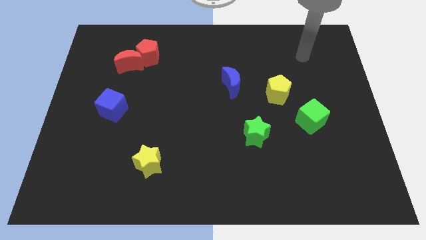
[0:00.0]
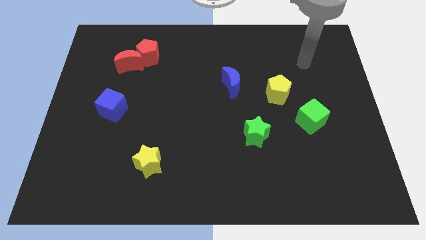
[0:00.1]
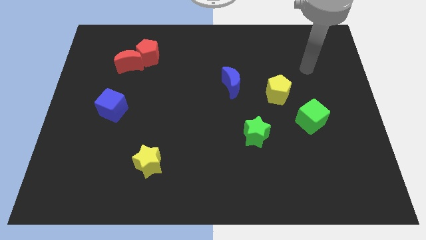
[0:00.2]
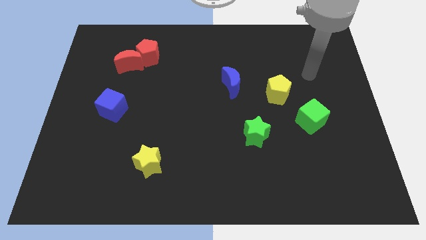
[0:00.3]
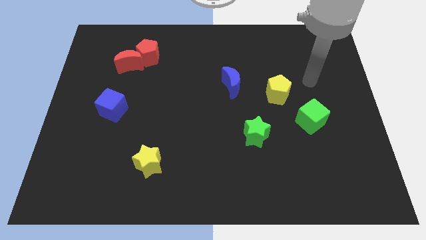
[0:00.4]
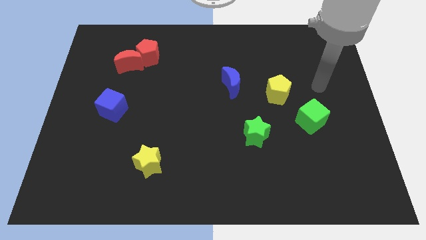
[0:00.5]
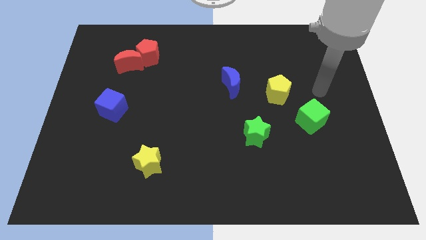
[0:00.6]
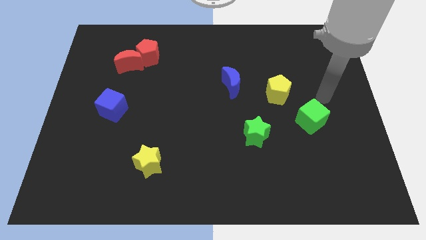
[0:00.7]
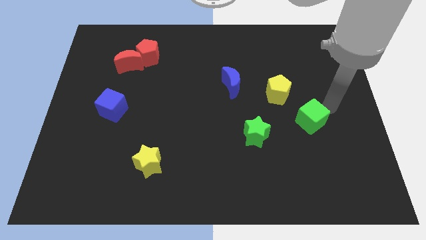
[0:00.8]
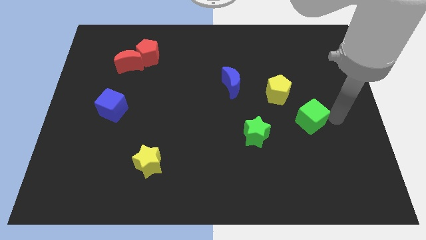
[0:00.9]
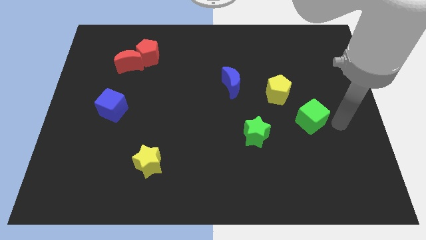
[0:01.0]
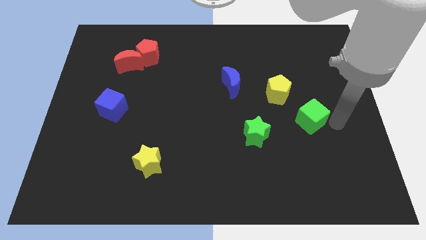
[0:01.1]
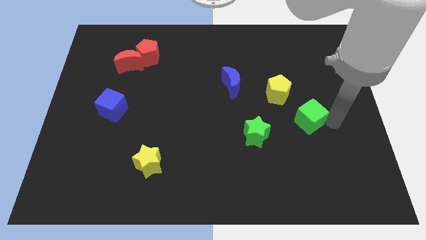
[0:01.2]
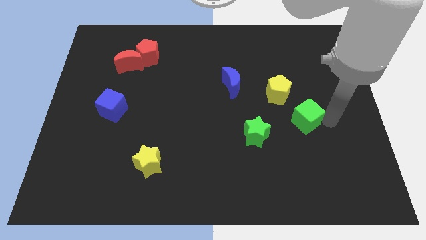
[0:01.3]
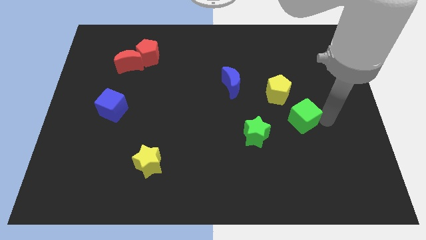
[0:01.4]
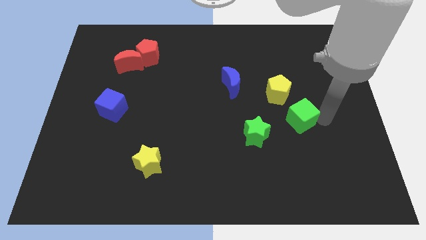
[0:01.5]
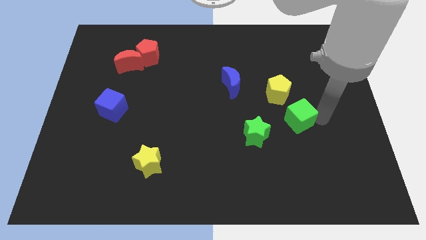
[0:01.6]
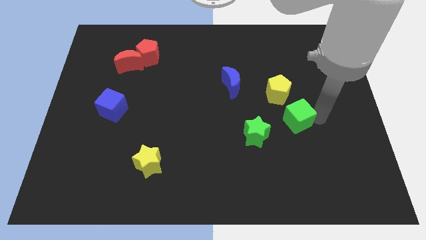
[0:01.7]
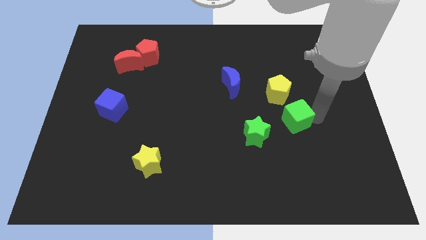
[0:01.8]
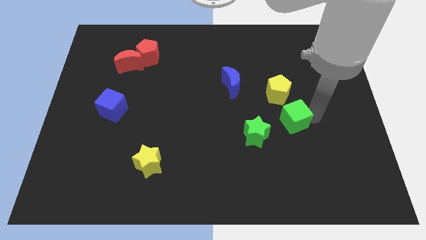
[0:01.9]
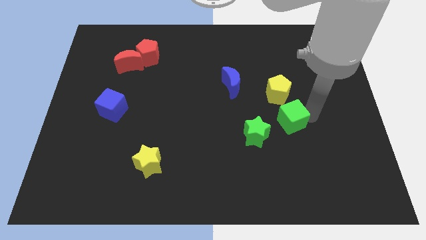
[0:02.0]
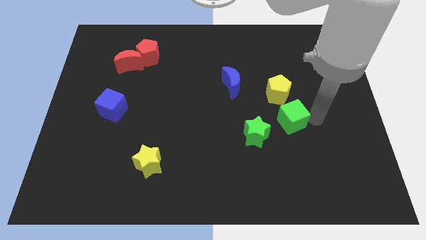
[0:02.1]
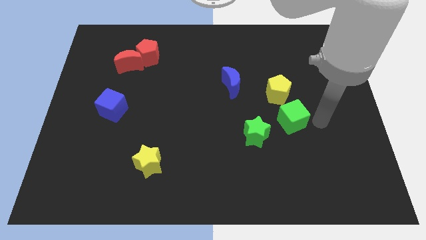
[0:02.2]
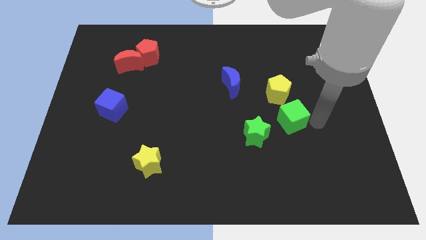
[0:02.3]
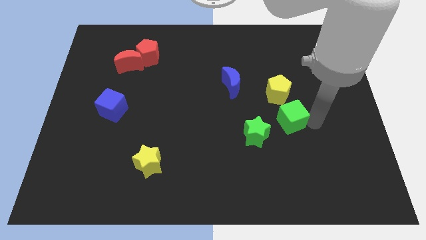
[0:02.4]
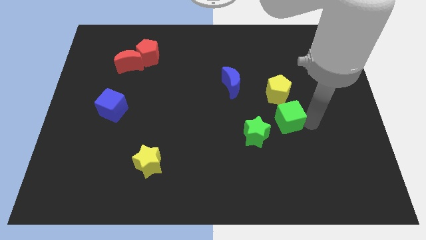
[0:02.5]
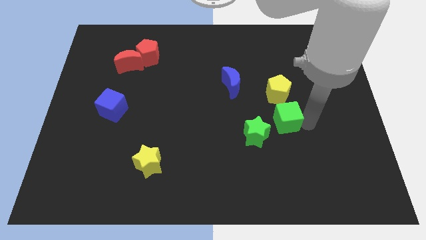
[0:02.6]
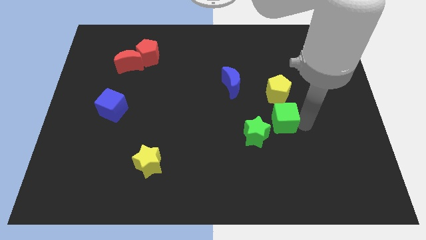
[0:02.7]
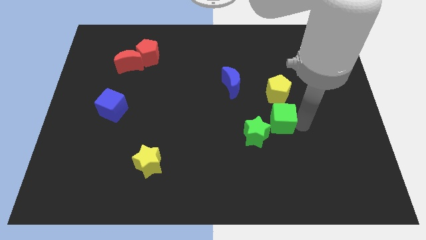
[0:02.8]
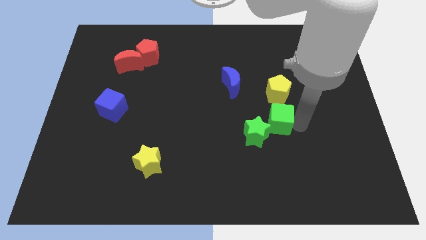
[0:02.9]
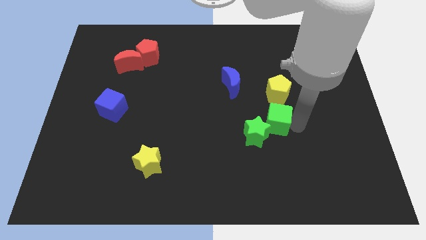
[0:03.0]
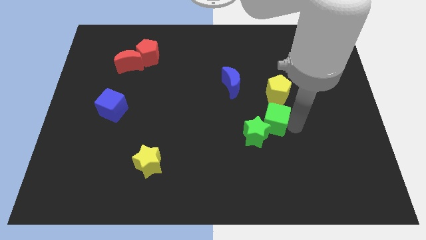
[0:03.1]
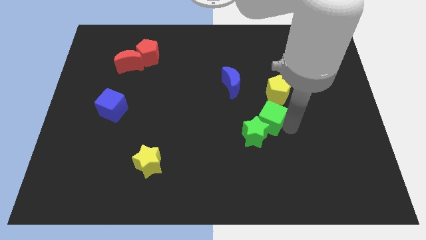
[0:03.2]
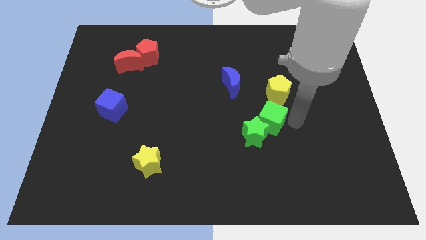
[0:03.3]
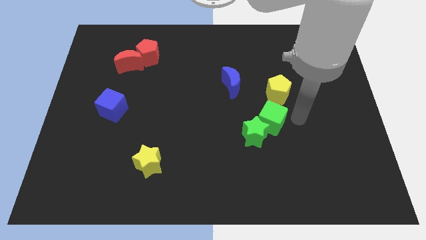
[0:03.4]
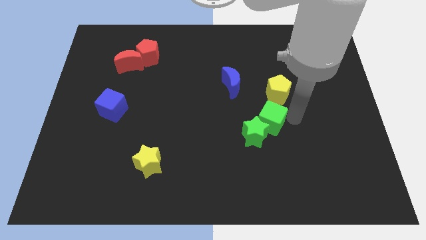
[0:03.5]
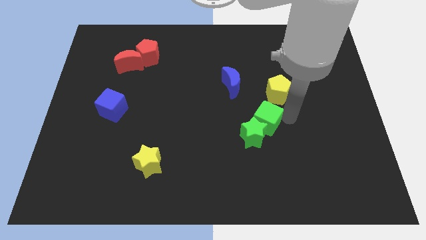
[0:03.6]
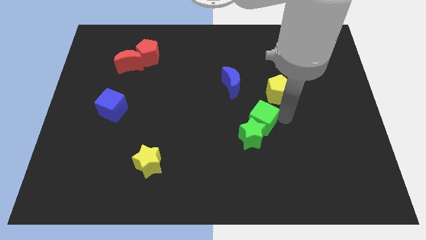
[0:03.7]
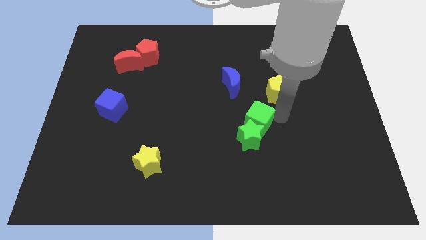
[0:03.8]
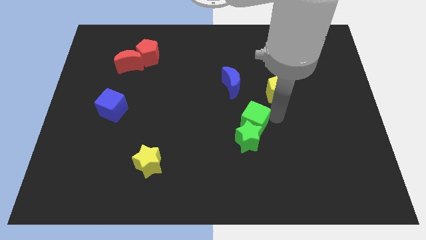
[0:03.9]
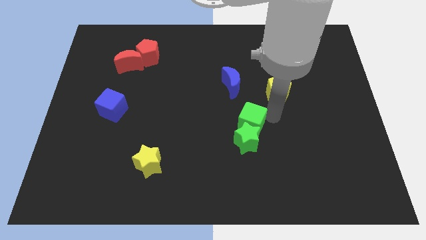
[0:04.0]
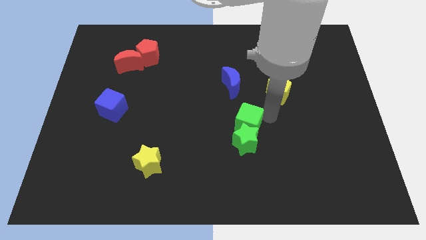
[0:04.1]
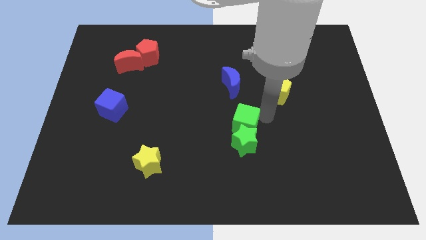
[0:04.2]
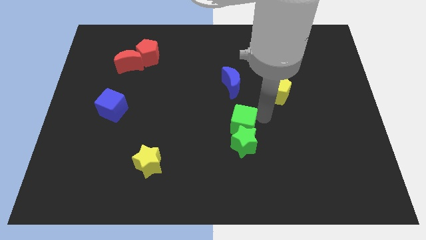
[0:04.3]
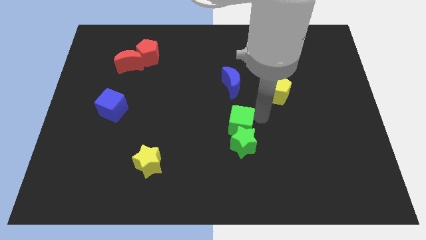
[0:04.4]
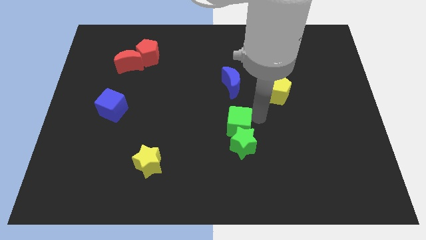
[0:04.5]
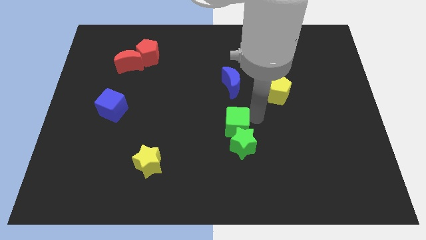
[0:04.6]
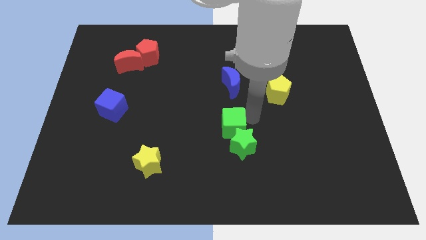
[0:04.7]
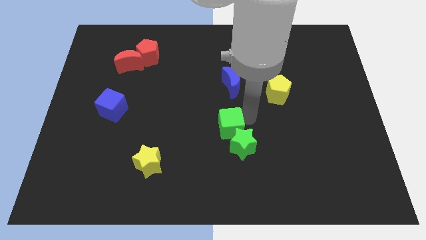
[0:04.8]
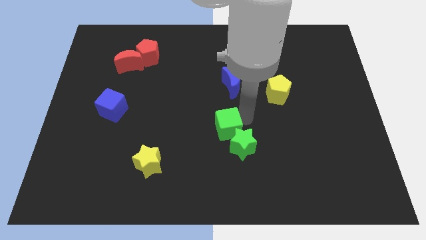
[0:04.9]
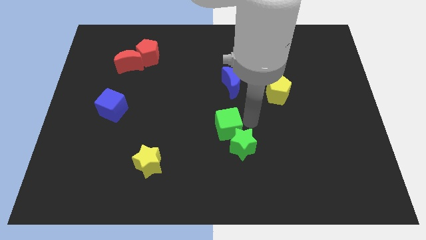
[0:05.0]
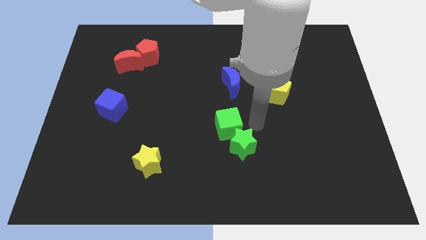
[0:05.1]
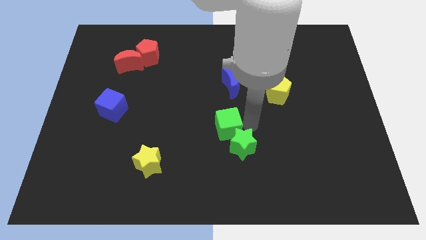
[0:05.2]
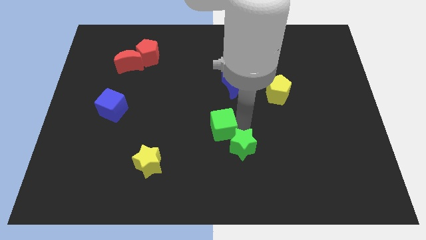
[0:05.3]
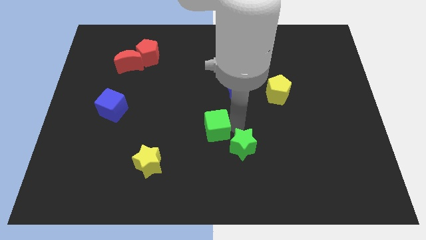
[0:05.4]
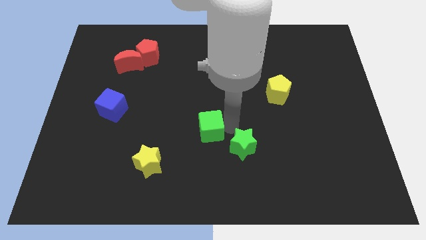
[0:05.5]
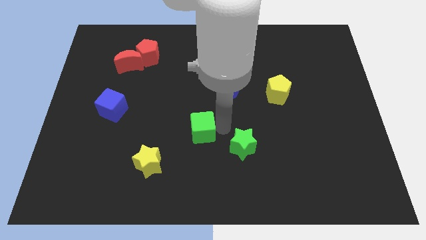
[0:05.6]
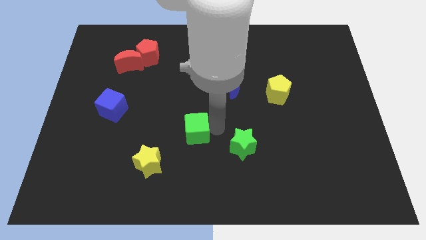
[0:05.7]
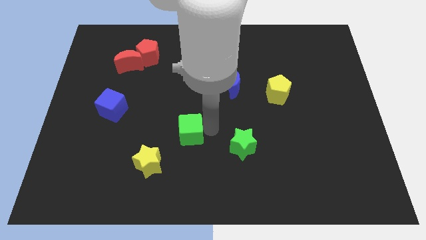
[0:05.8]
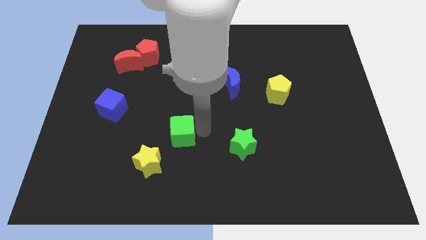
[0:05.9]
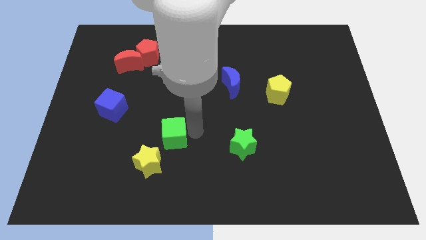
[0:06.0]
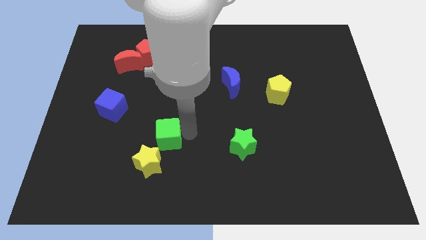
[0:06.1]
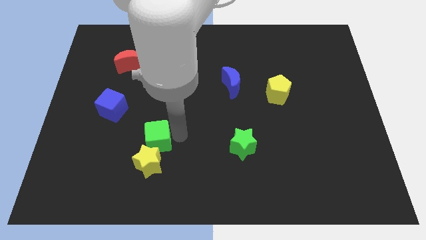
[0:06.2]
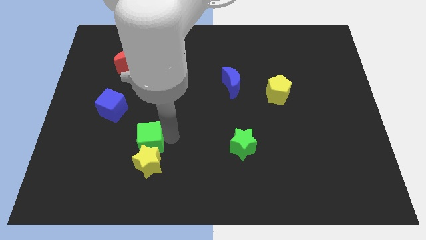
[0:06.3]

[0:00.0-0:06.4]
push the green cube to the top left side of the yellow star

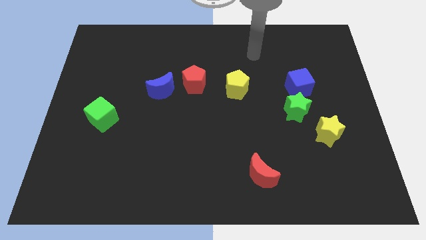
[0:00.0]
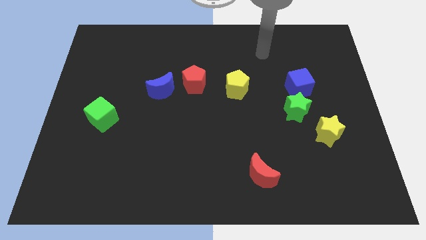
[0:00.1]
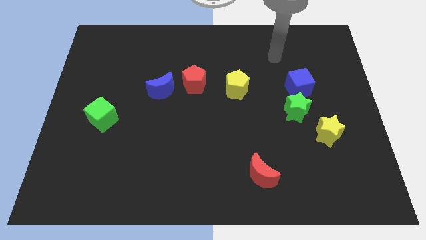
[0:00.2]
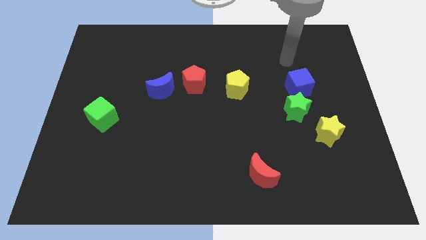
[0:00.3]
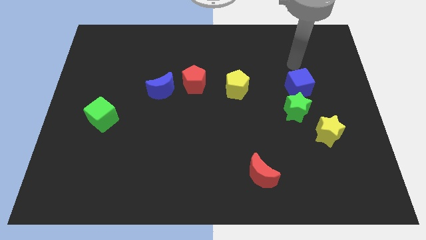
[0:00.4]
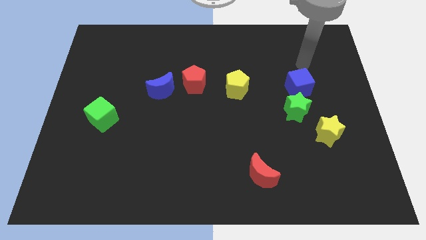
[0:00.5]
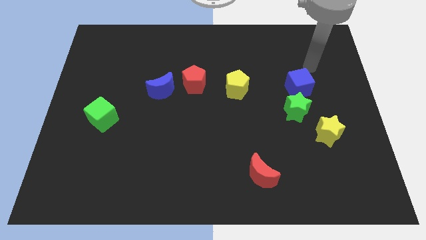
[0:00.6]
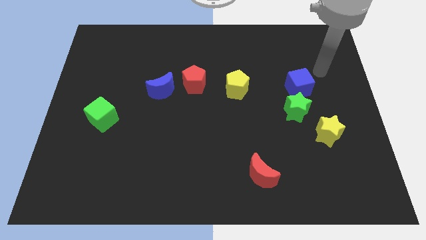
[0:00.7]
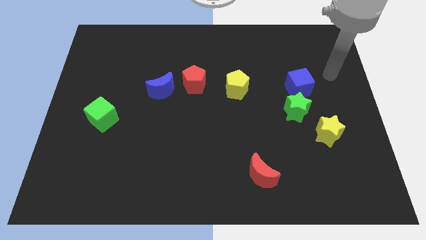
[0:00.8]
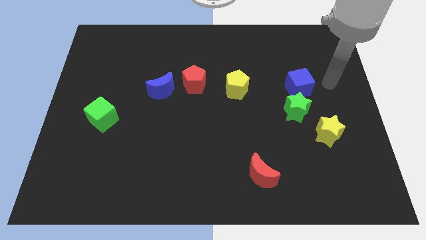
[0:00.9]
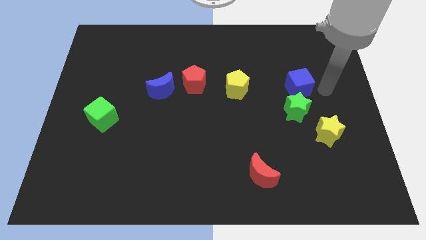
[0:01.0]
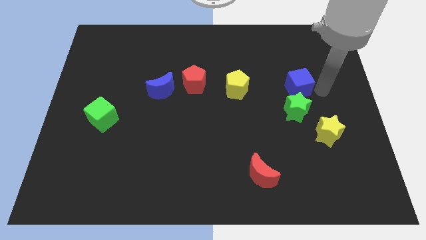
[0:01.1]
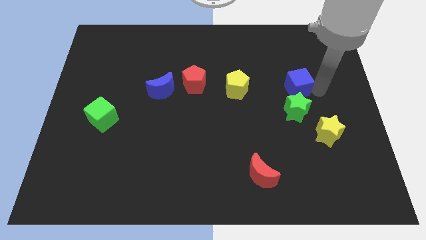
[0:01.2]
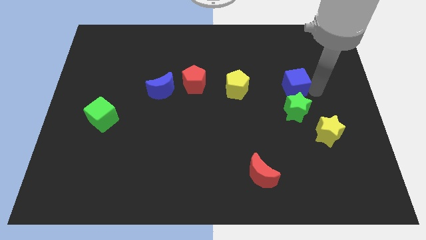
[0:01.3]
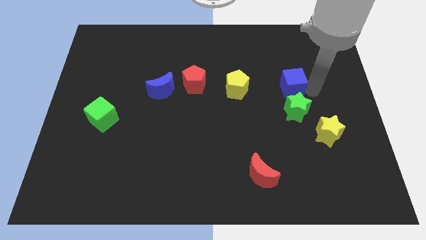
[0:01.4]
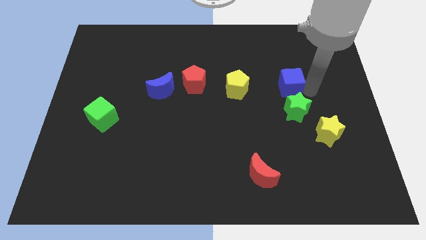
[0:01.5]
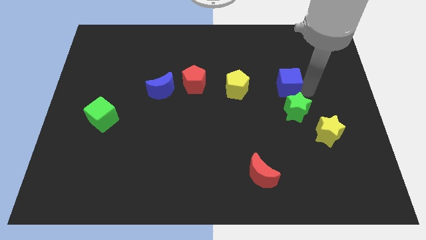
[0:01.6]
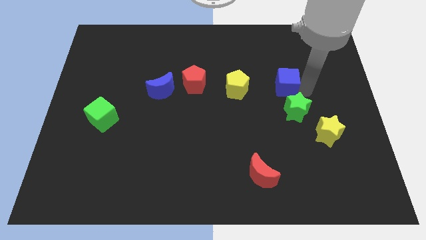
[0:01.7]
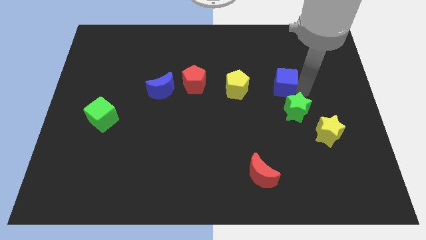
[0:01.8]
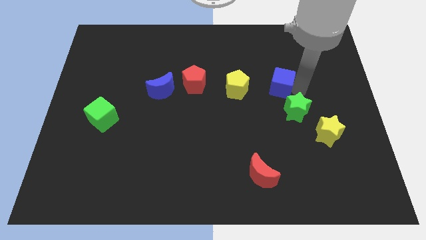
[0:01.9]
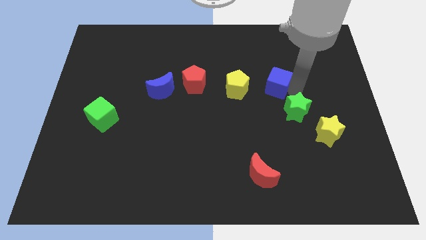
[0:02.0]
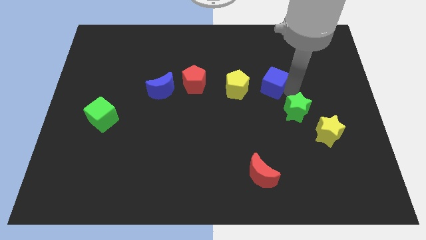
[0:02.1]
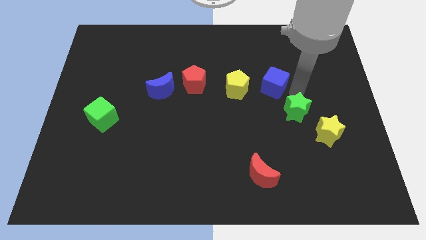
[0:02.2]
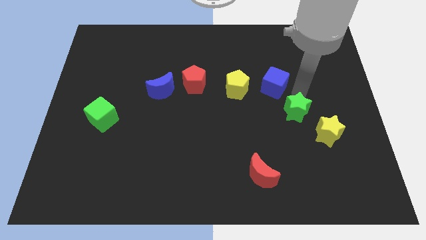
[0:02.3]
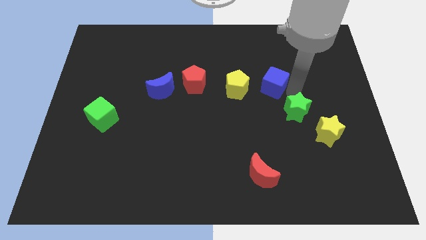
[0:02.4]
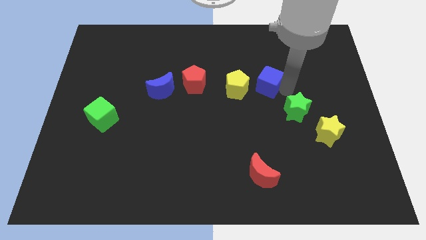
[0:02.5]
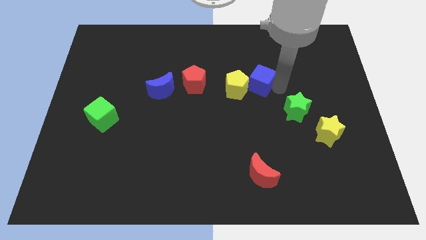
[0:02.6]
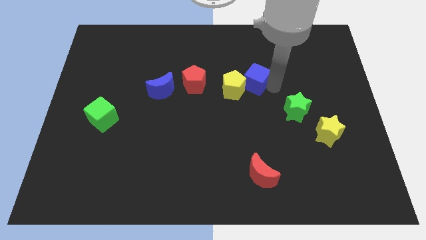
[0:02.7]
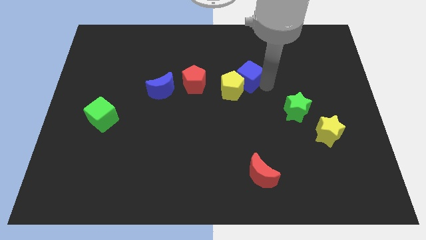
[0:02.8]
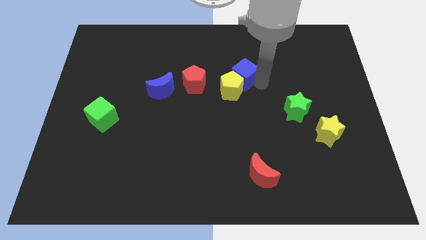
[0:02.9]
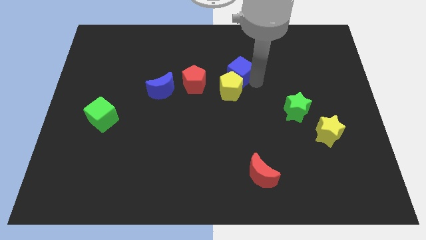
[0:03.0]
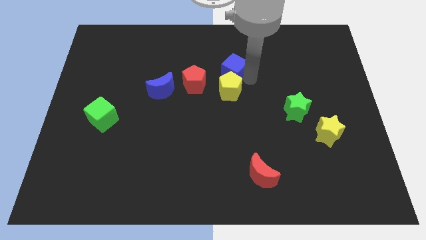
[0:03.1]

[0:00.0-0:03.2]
move the blue cube to the top right of the red pentagon
